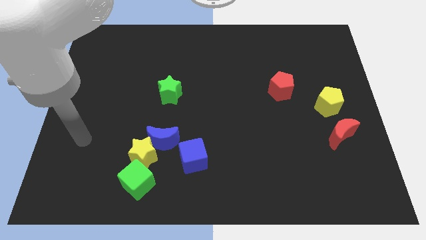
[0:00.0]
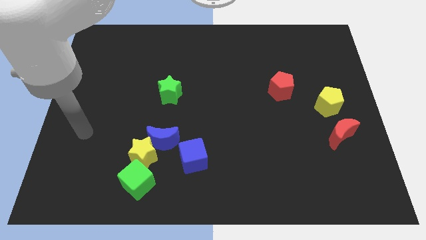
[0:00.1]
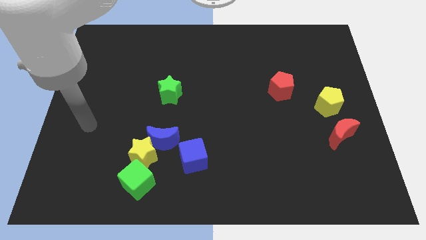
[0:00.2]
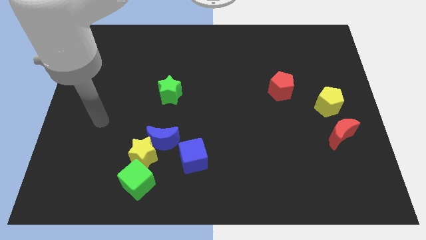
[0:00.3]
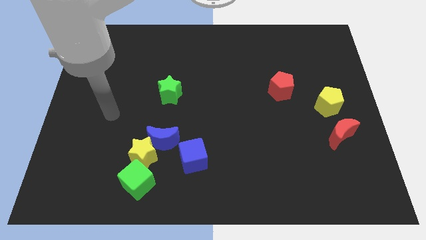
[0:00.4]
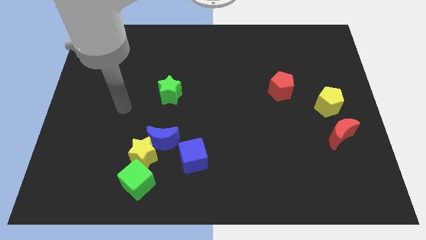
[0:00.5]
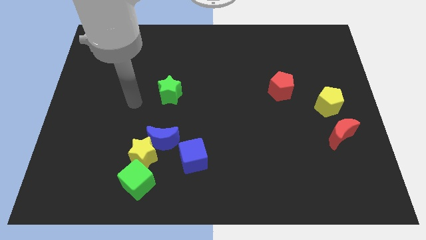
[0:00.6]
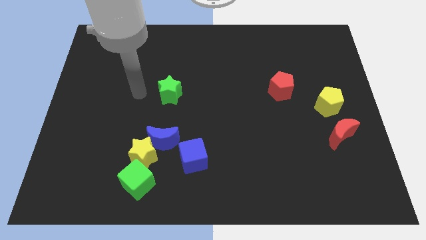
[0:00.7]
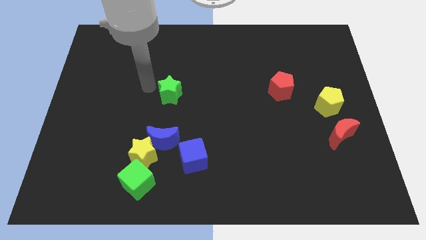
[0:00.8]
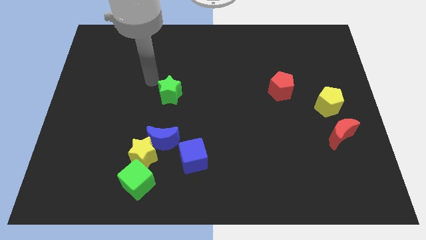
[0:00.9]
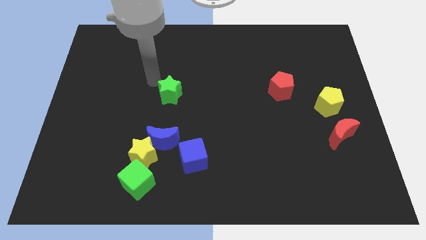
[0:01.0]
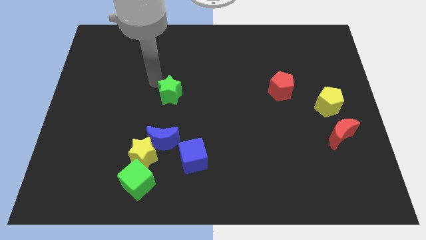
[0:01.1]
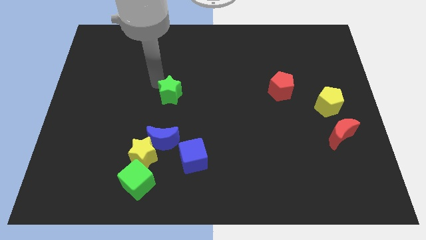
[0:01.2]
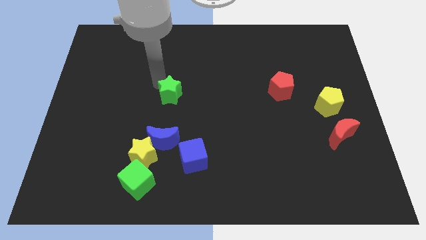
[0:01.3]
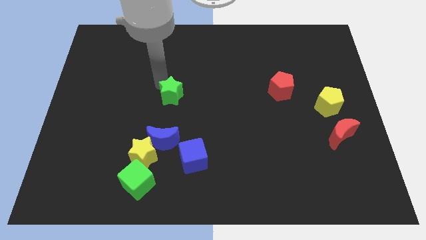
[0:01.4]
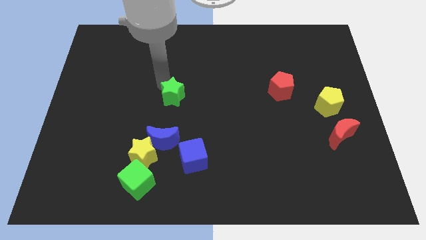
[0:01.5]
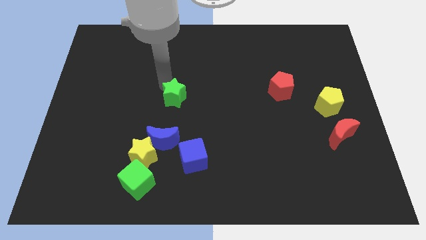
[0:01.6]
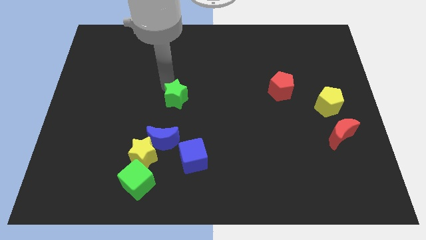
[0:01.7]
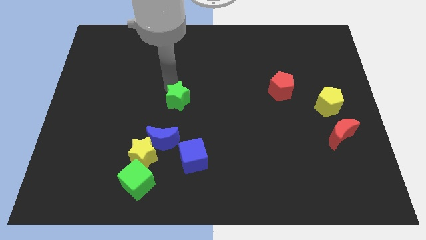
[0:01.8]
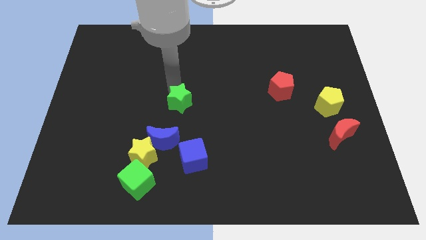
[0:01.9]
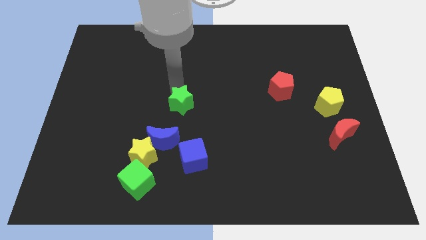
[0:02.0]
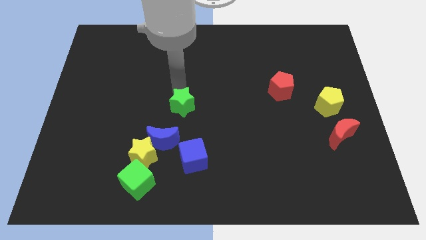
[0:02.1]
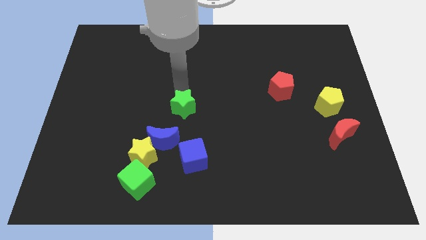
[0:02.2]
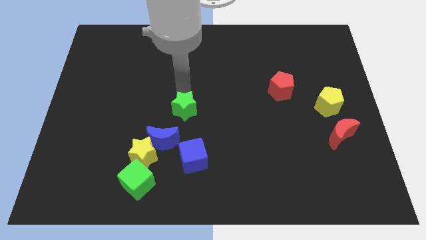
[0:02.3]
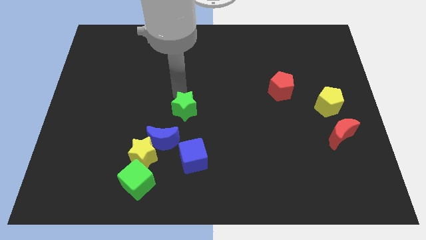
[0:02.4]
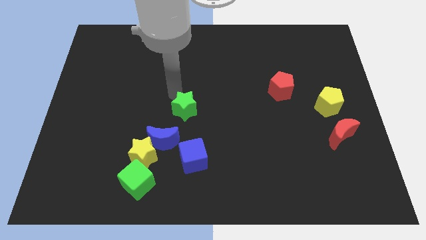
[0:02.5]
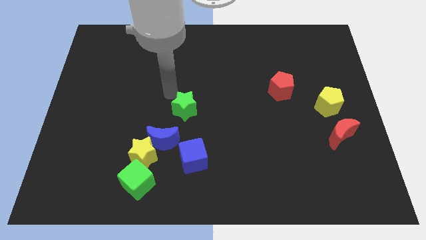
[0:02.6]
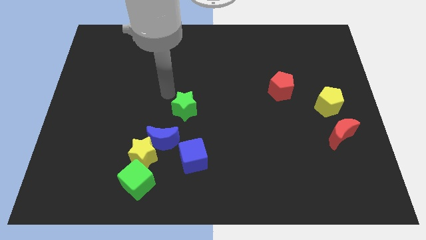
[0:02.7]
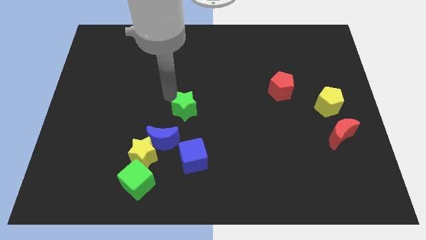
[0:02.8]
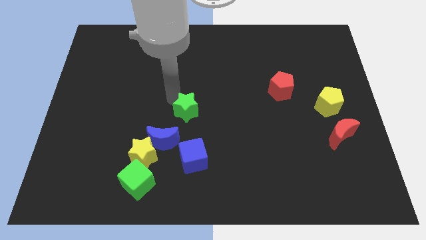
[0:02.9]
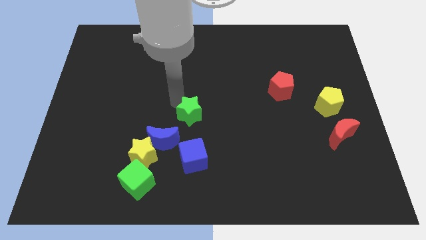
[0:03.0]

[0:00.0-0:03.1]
slightly move the green star down and to the right diagonally

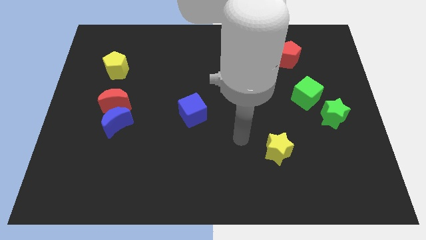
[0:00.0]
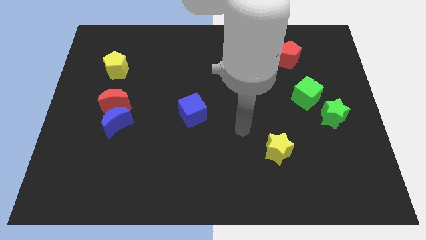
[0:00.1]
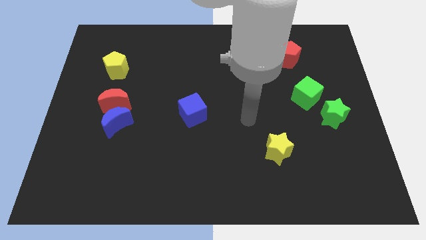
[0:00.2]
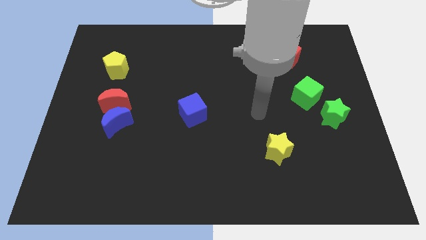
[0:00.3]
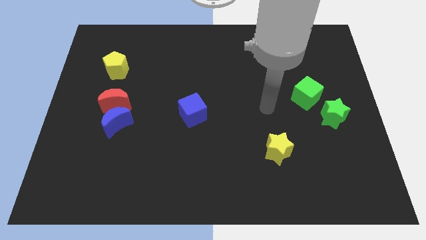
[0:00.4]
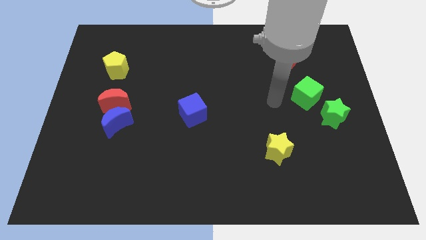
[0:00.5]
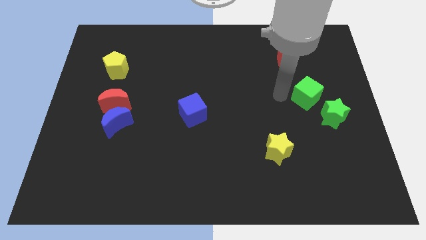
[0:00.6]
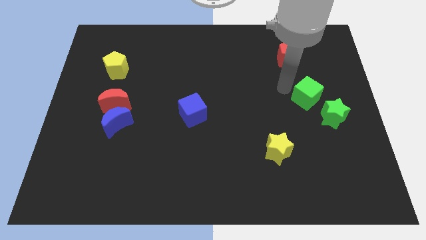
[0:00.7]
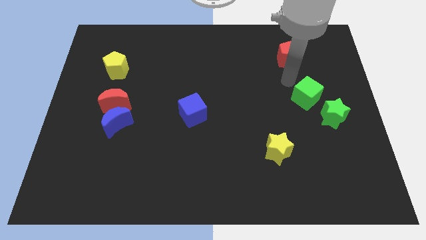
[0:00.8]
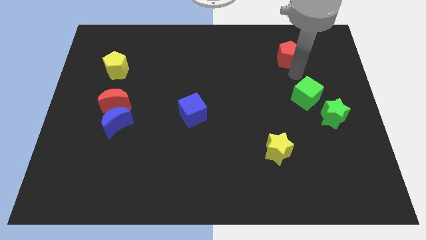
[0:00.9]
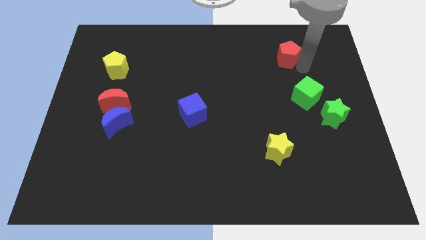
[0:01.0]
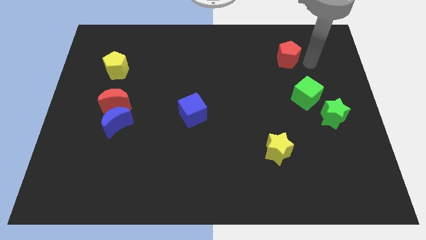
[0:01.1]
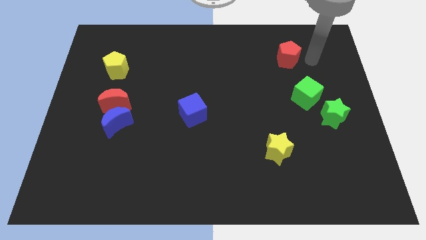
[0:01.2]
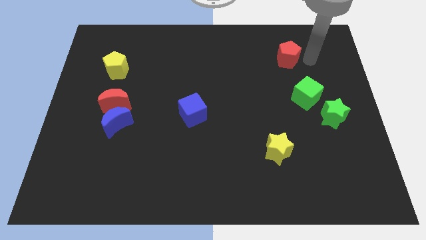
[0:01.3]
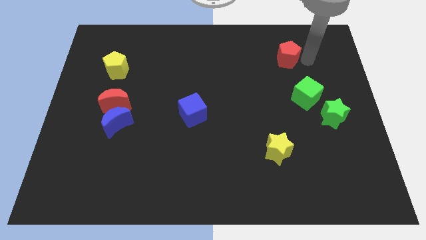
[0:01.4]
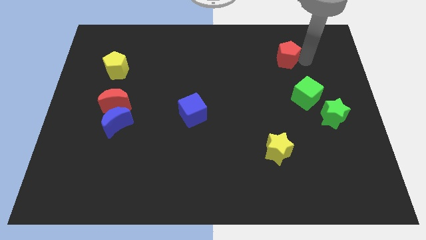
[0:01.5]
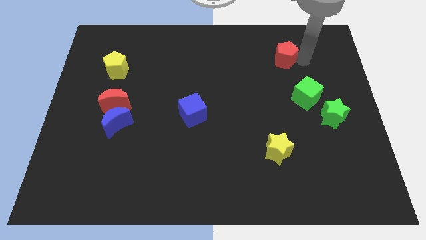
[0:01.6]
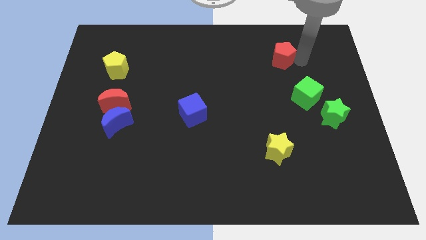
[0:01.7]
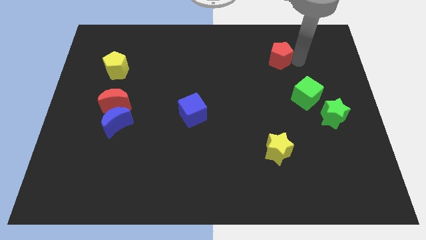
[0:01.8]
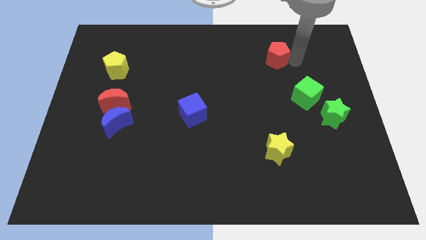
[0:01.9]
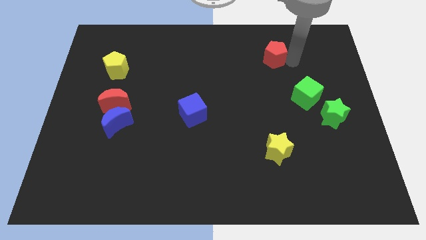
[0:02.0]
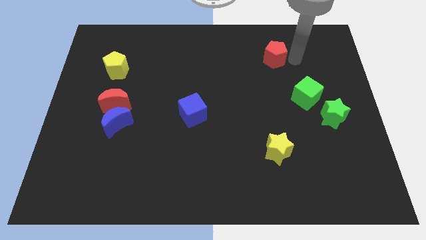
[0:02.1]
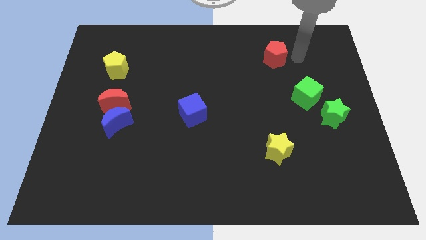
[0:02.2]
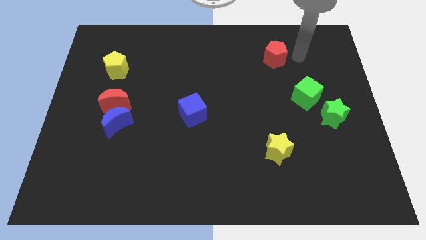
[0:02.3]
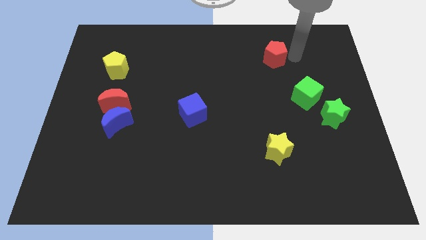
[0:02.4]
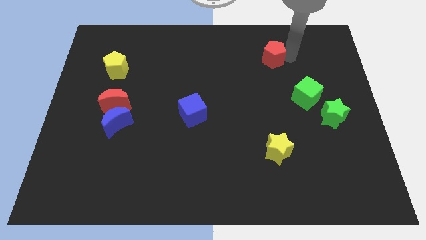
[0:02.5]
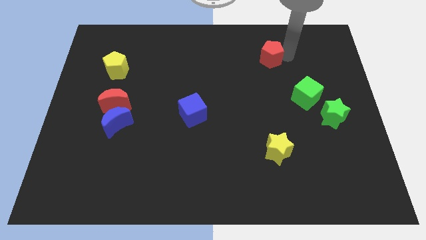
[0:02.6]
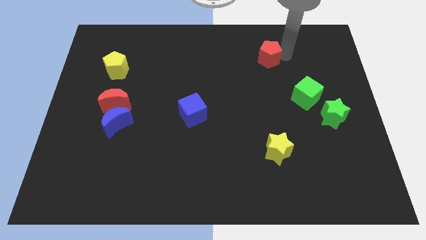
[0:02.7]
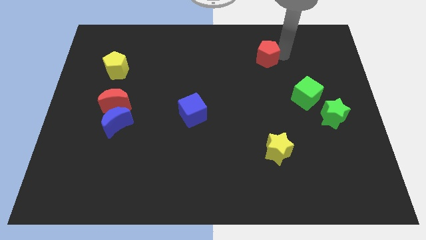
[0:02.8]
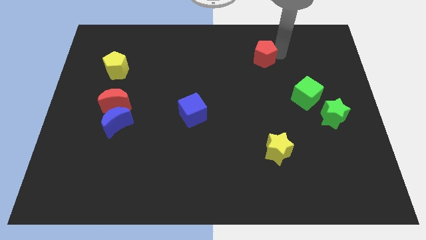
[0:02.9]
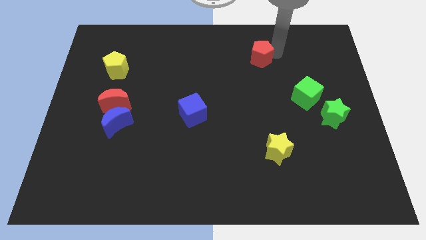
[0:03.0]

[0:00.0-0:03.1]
push the red pentagon to the left a bit

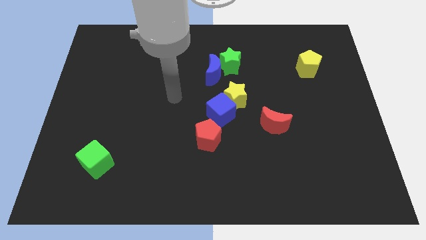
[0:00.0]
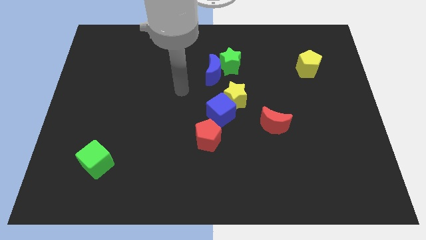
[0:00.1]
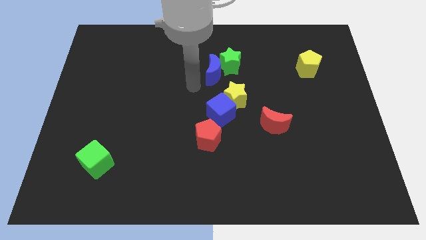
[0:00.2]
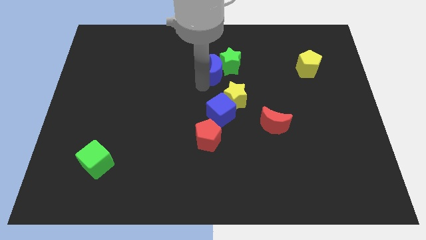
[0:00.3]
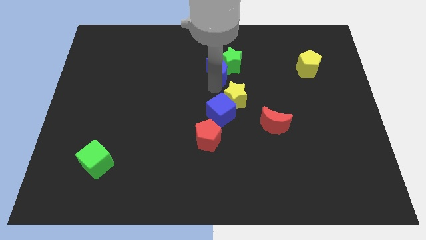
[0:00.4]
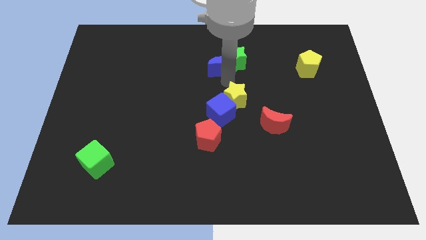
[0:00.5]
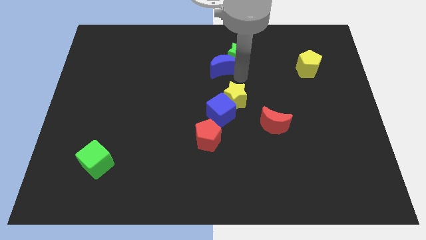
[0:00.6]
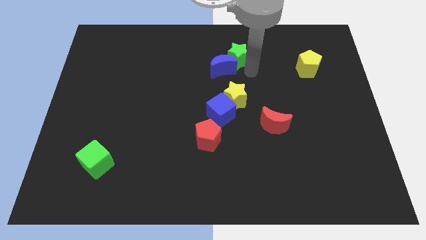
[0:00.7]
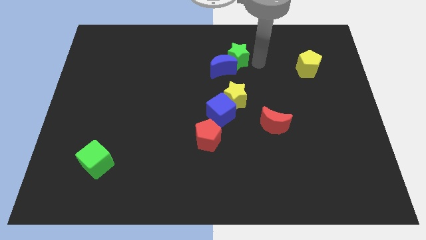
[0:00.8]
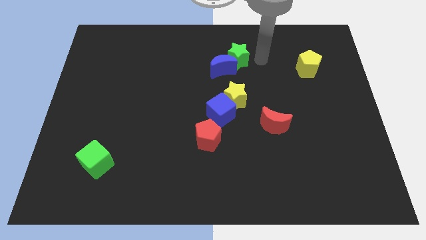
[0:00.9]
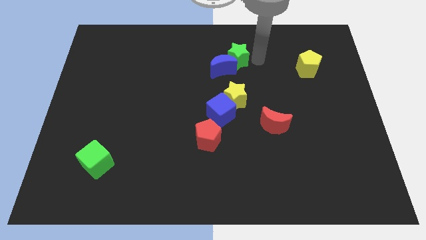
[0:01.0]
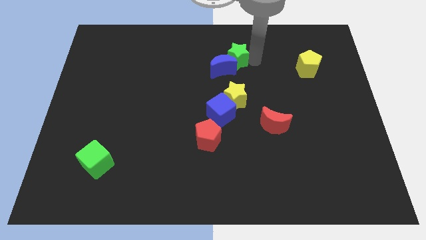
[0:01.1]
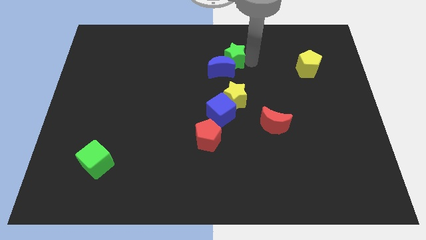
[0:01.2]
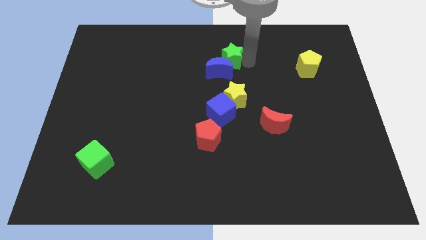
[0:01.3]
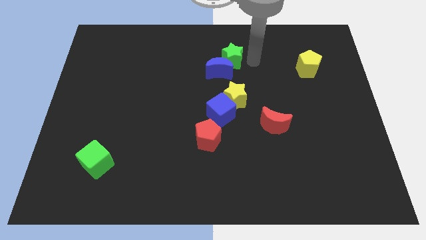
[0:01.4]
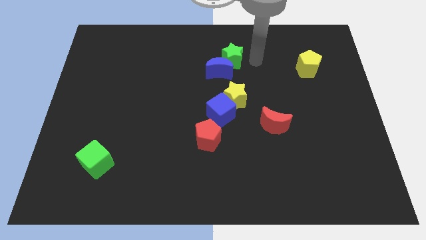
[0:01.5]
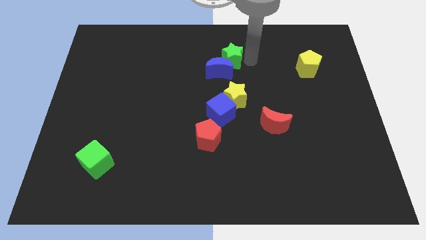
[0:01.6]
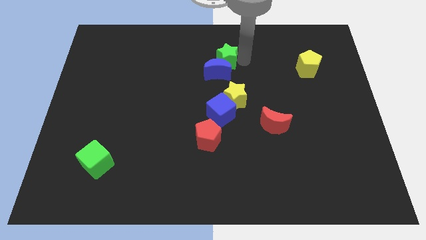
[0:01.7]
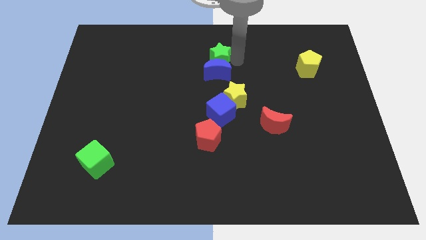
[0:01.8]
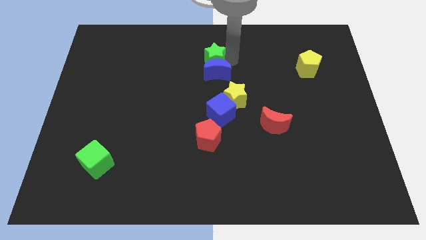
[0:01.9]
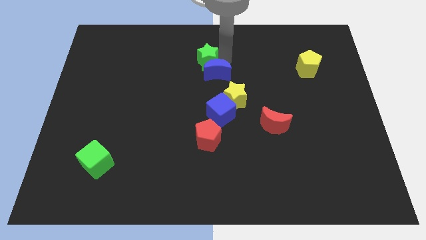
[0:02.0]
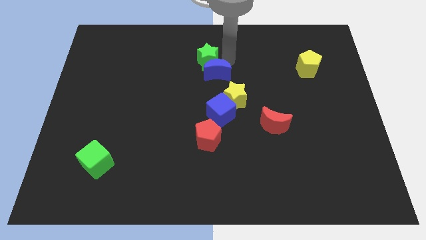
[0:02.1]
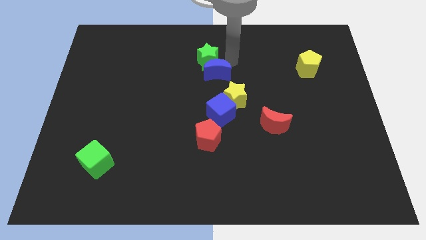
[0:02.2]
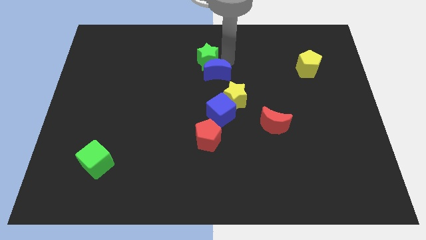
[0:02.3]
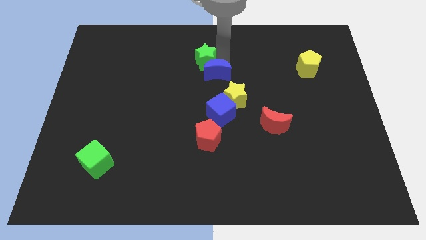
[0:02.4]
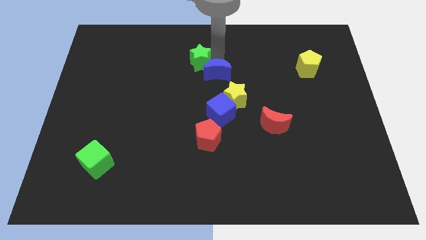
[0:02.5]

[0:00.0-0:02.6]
slightly move the green star left
